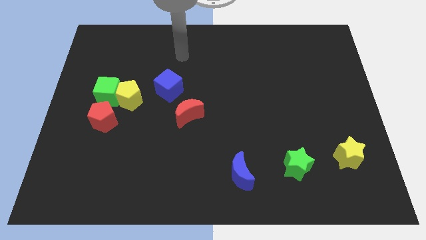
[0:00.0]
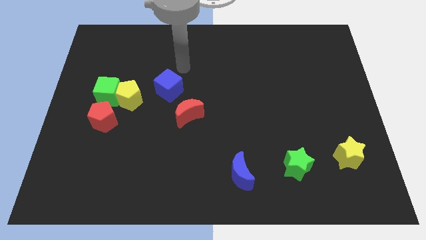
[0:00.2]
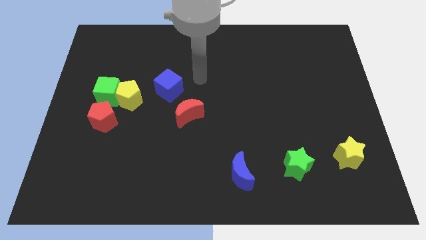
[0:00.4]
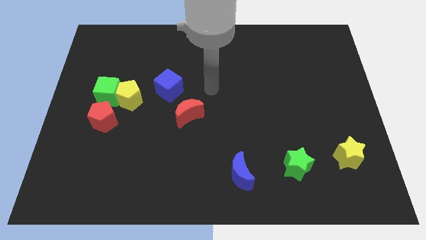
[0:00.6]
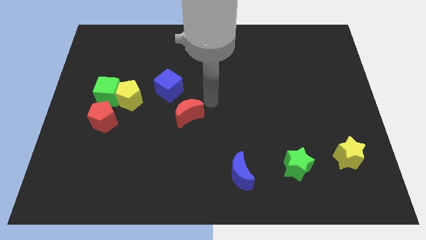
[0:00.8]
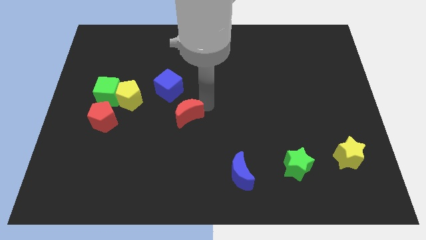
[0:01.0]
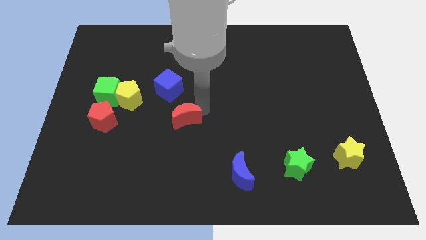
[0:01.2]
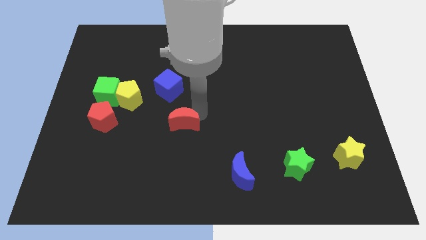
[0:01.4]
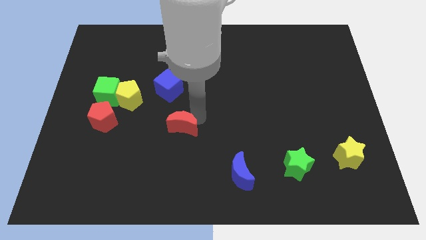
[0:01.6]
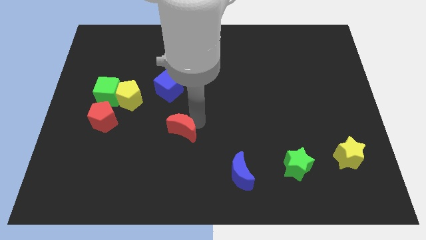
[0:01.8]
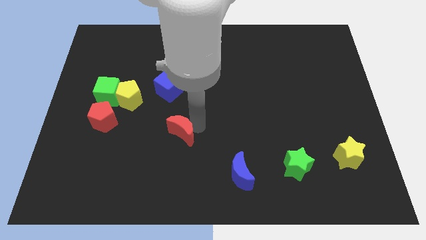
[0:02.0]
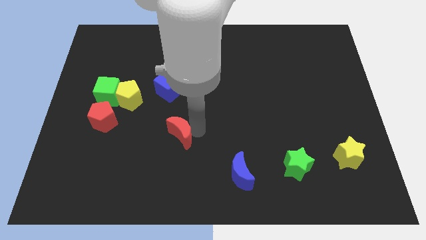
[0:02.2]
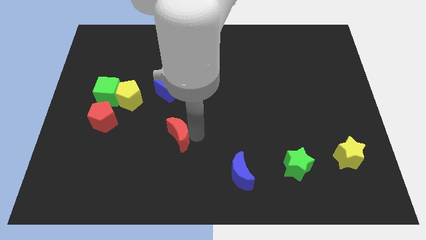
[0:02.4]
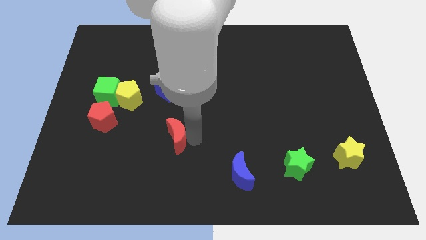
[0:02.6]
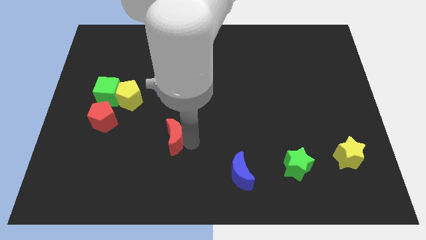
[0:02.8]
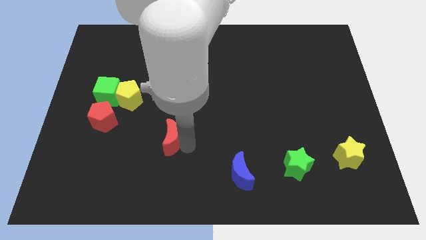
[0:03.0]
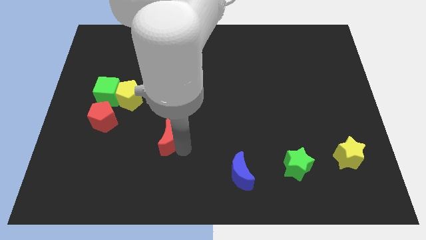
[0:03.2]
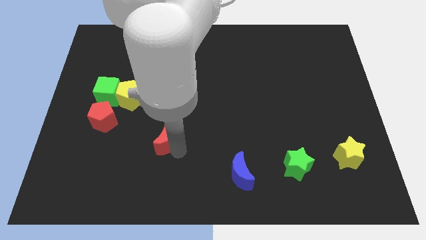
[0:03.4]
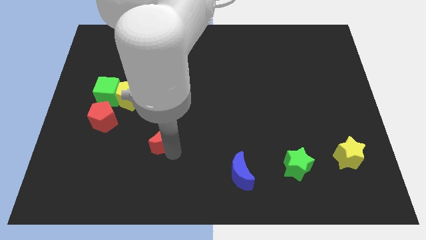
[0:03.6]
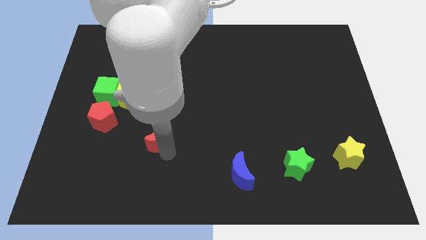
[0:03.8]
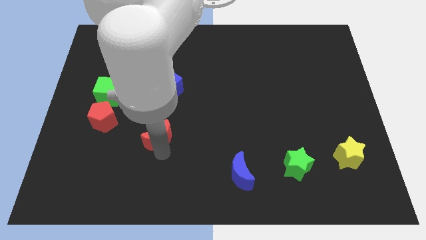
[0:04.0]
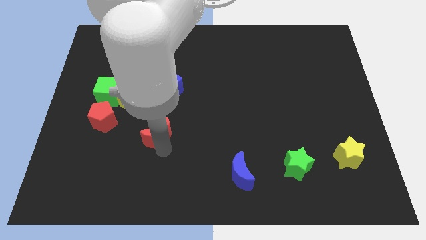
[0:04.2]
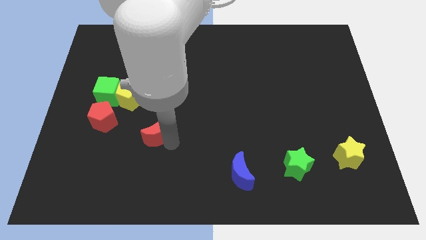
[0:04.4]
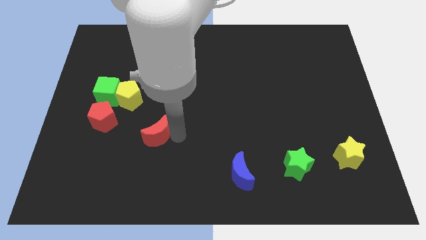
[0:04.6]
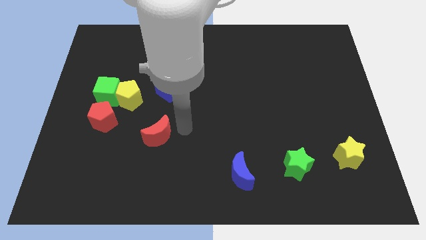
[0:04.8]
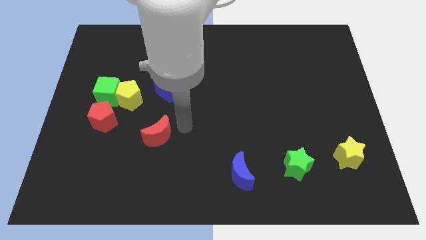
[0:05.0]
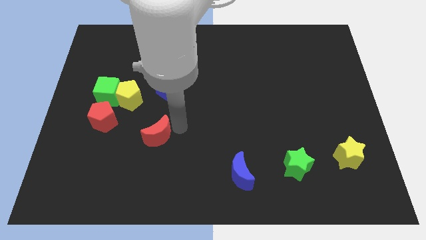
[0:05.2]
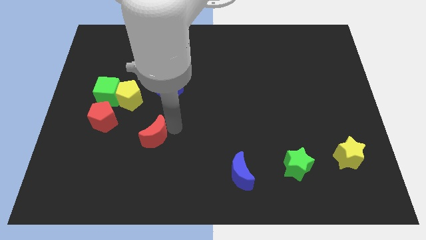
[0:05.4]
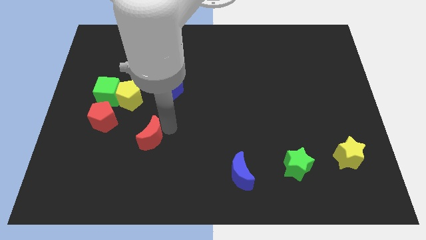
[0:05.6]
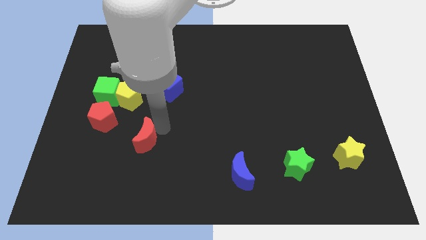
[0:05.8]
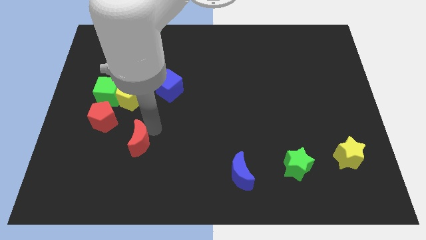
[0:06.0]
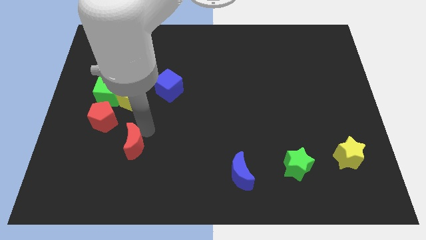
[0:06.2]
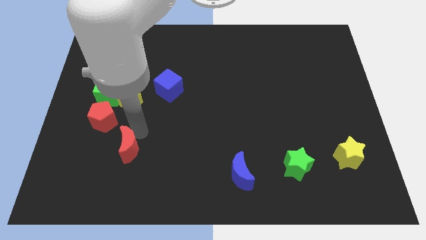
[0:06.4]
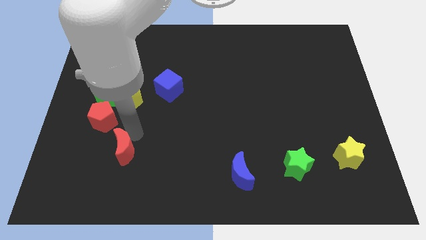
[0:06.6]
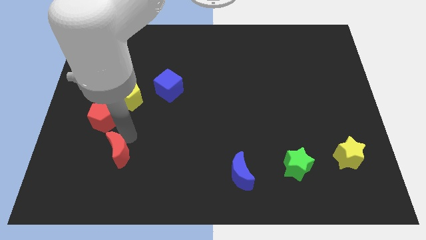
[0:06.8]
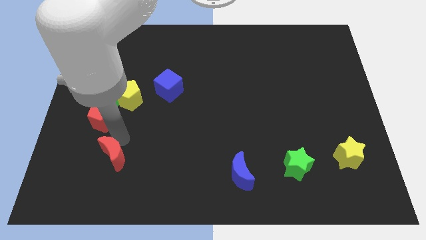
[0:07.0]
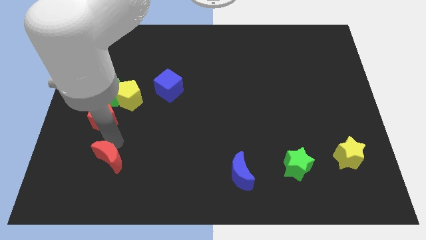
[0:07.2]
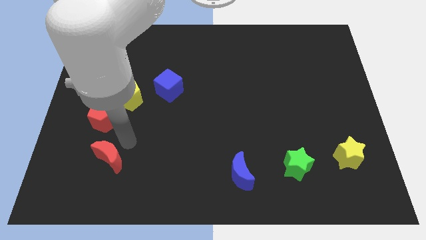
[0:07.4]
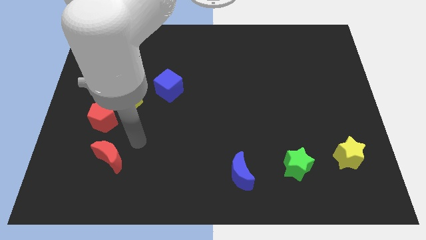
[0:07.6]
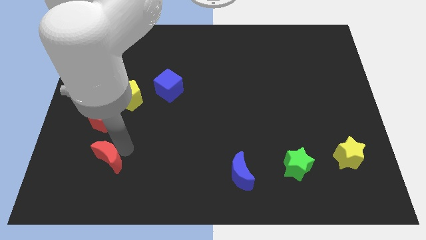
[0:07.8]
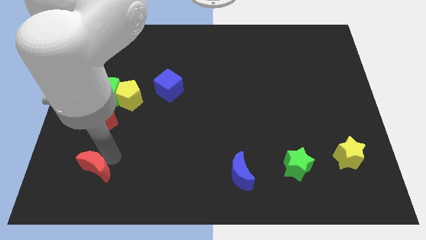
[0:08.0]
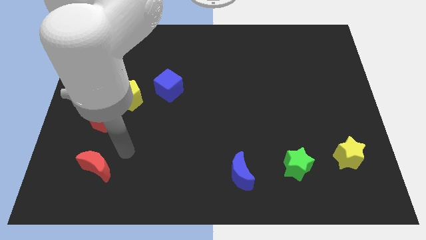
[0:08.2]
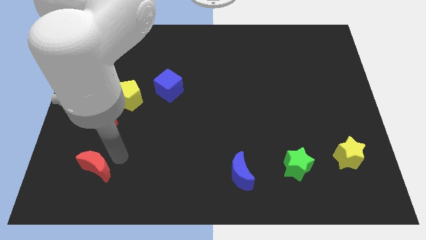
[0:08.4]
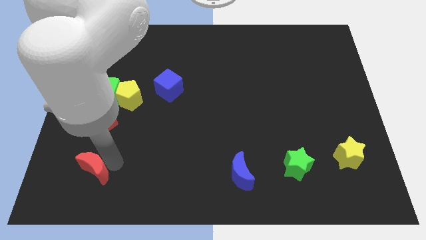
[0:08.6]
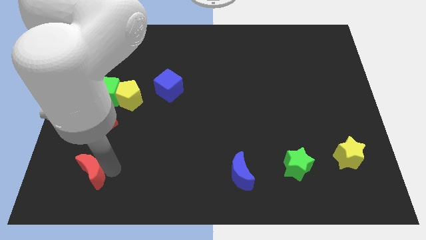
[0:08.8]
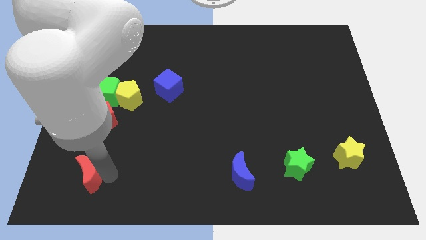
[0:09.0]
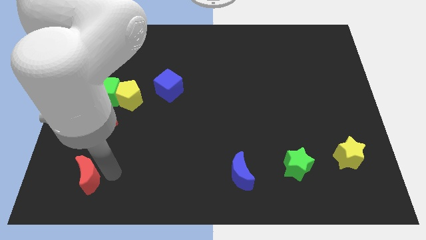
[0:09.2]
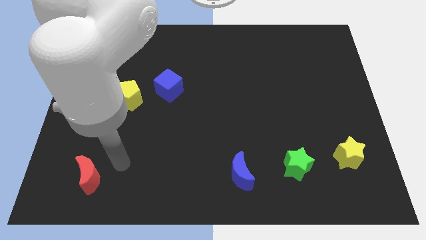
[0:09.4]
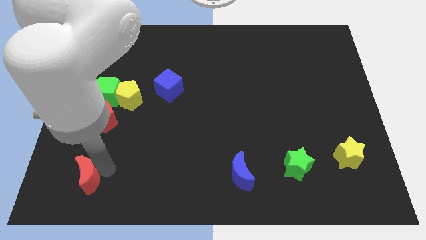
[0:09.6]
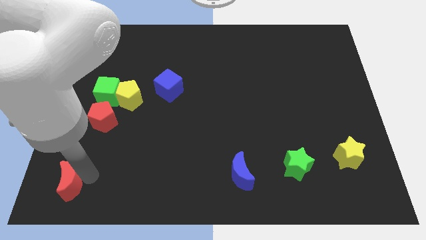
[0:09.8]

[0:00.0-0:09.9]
put the red moon to the bottom left

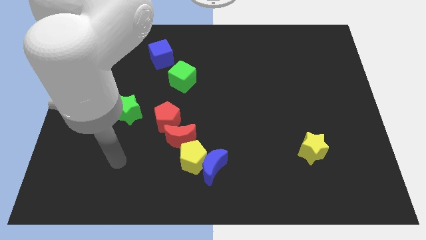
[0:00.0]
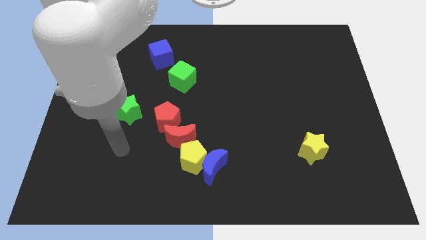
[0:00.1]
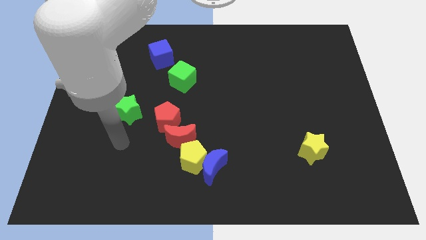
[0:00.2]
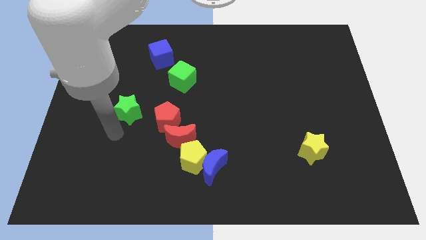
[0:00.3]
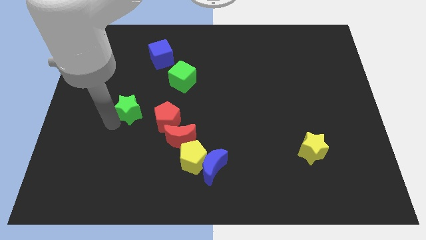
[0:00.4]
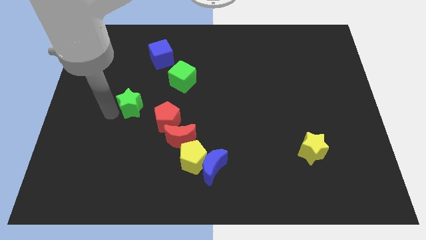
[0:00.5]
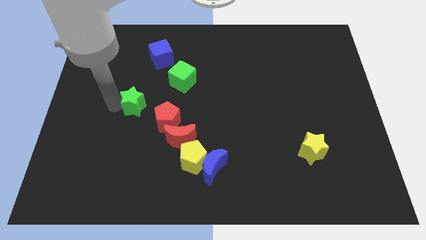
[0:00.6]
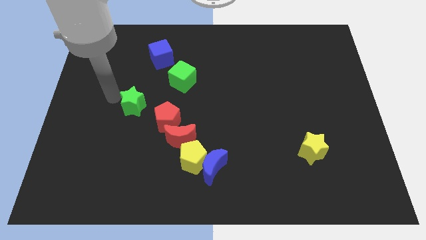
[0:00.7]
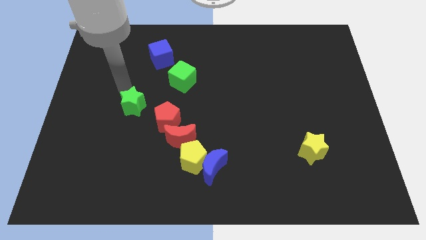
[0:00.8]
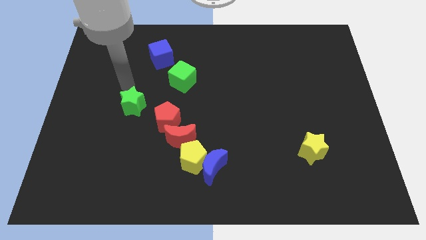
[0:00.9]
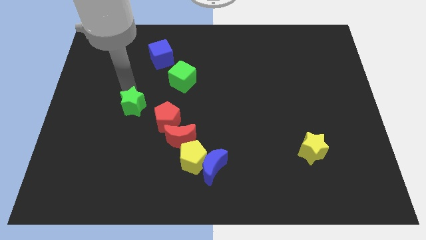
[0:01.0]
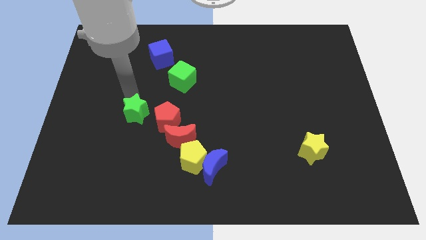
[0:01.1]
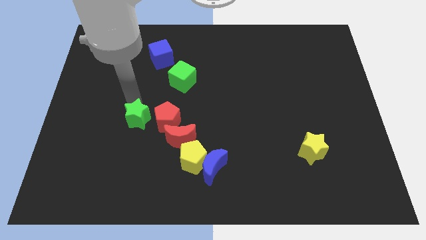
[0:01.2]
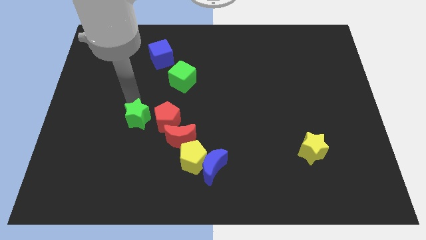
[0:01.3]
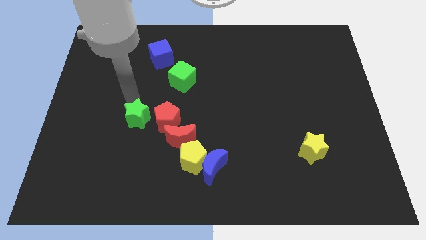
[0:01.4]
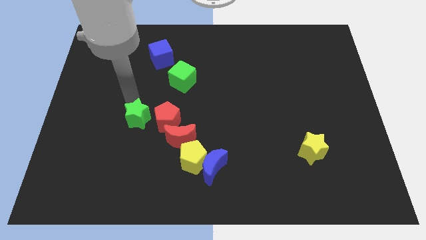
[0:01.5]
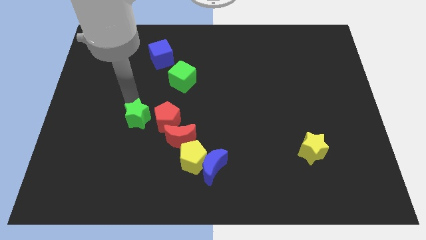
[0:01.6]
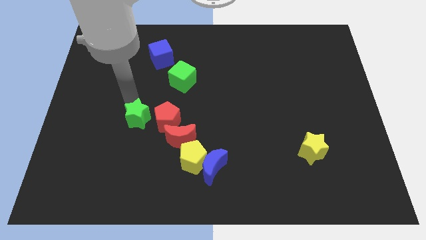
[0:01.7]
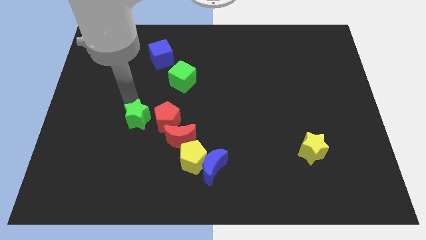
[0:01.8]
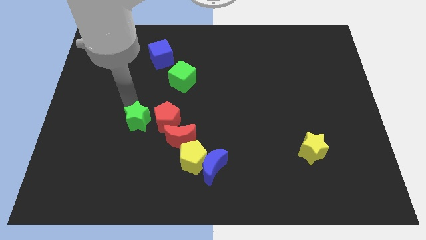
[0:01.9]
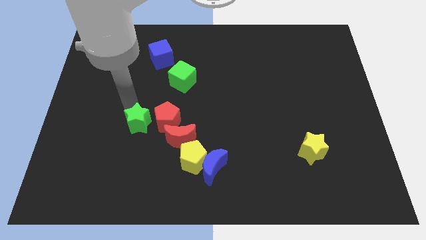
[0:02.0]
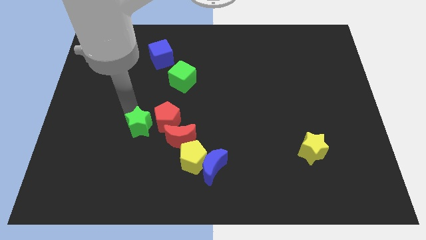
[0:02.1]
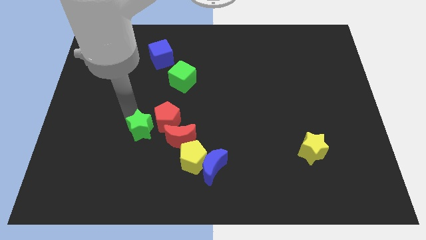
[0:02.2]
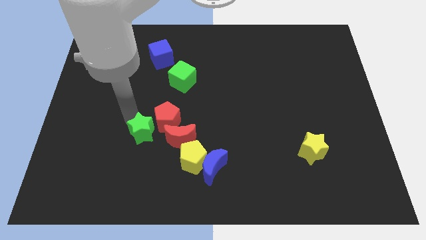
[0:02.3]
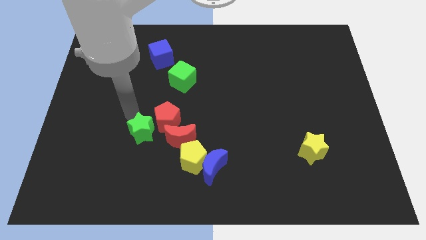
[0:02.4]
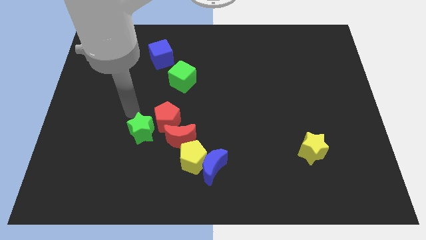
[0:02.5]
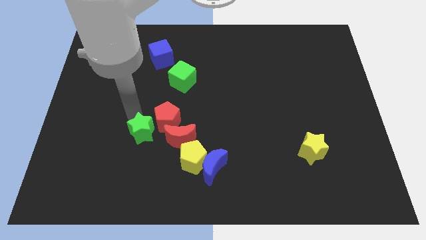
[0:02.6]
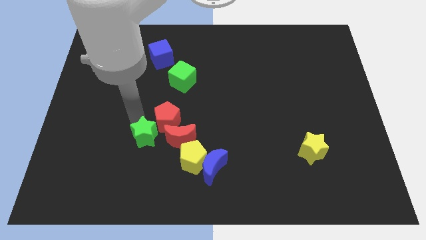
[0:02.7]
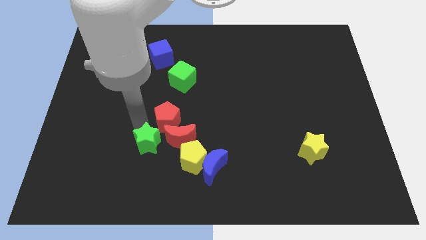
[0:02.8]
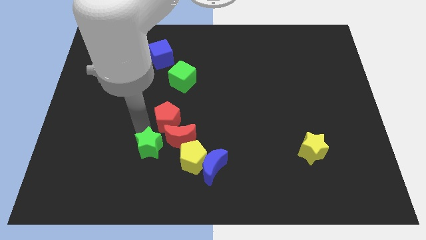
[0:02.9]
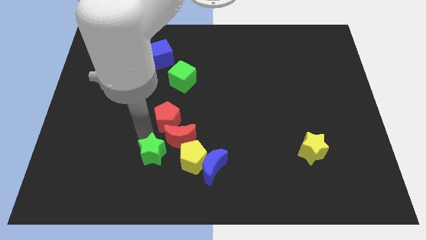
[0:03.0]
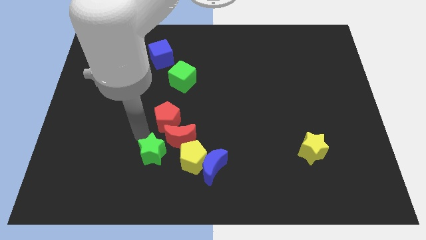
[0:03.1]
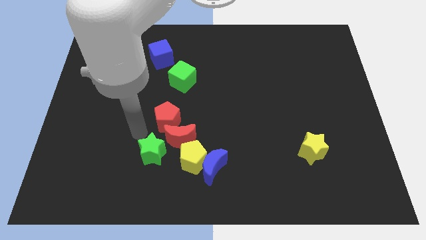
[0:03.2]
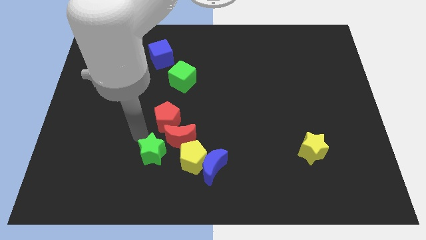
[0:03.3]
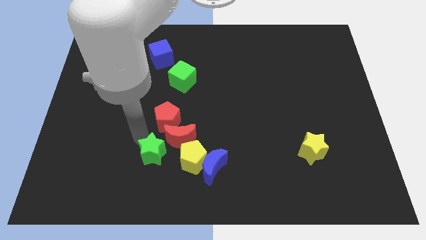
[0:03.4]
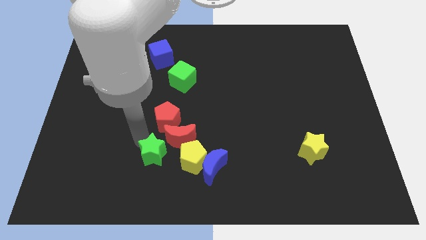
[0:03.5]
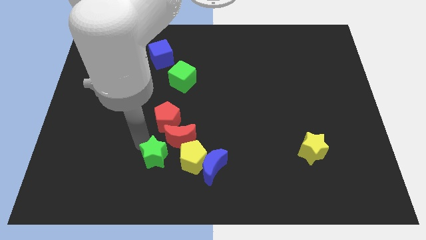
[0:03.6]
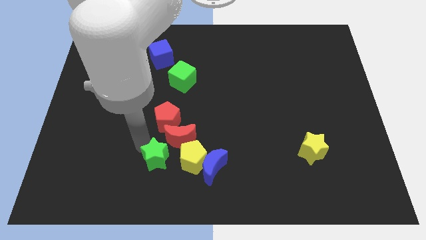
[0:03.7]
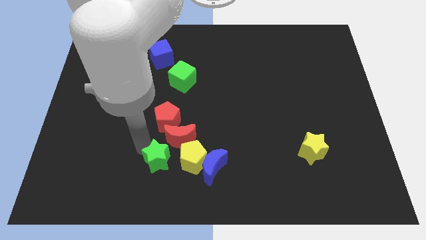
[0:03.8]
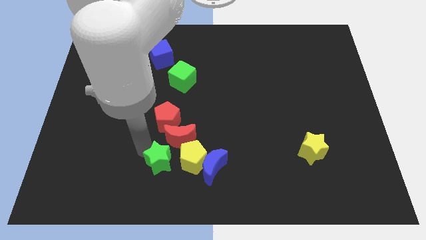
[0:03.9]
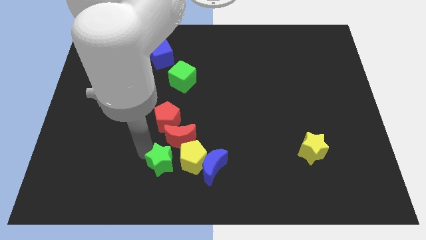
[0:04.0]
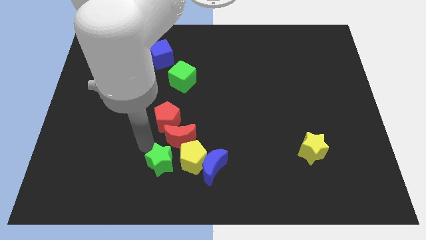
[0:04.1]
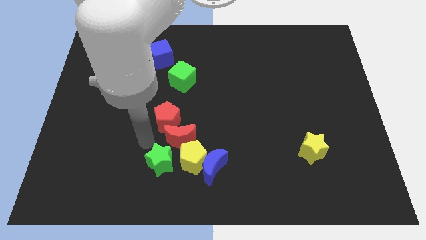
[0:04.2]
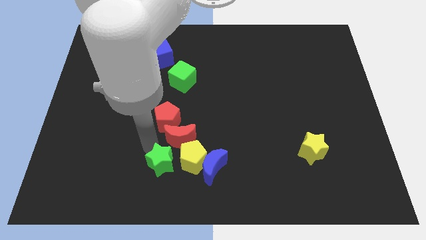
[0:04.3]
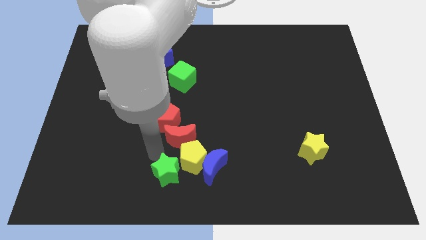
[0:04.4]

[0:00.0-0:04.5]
move the green star to the bottom
